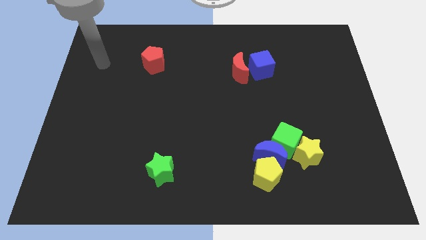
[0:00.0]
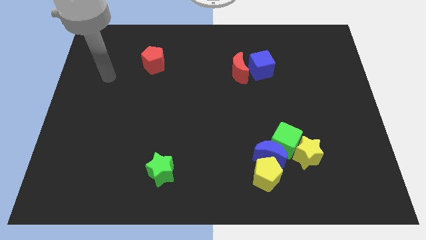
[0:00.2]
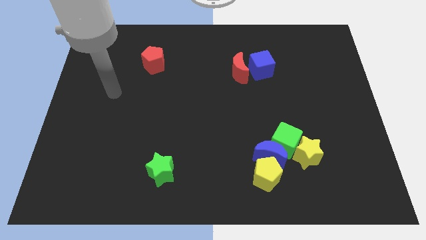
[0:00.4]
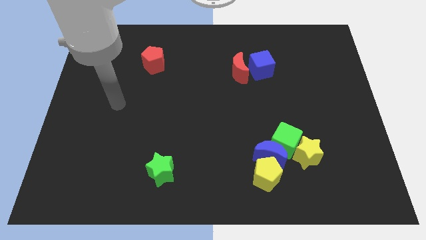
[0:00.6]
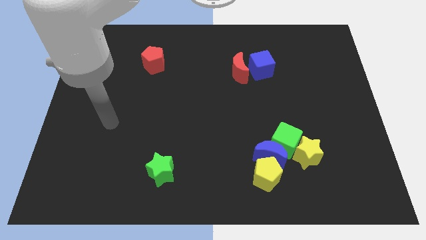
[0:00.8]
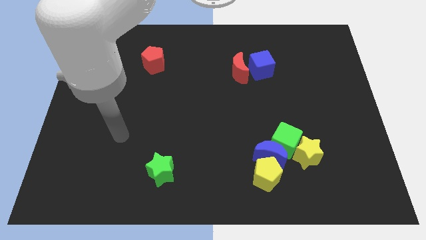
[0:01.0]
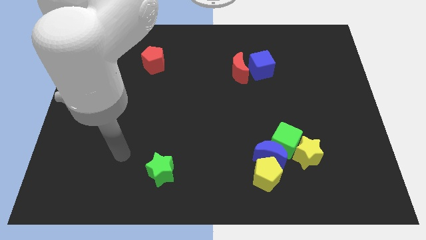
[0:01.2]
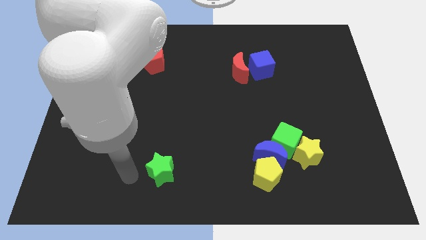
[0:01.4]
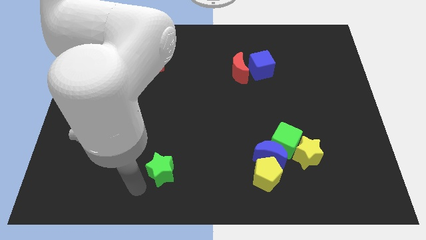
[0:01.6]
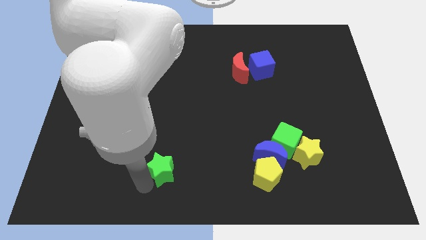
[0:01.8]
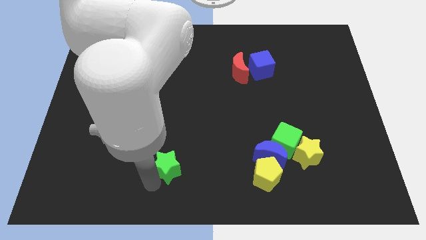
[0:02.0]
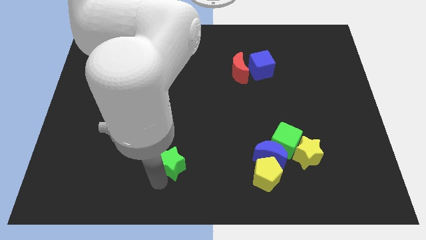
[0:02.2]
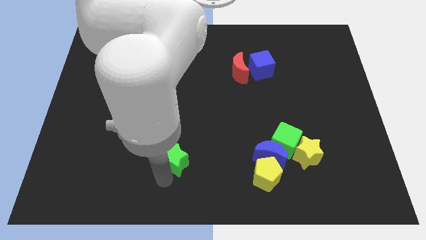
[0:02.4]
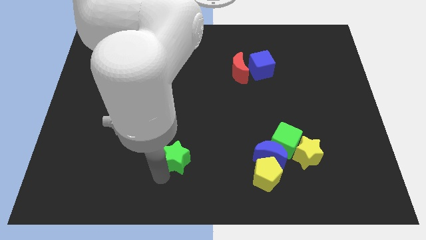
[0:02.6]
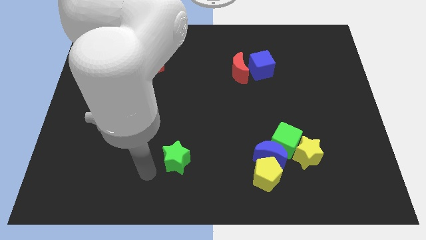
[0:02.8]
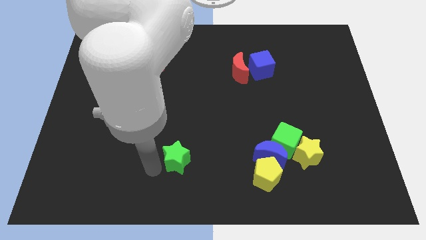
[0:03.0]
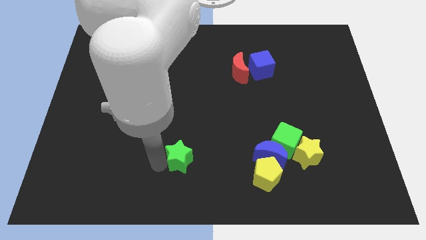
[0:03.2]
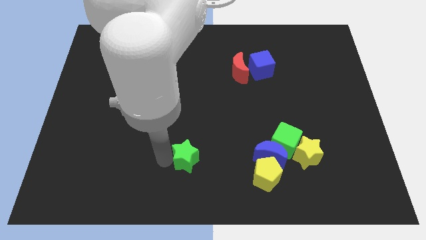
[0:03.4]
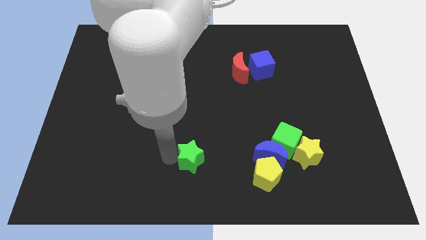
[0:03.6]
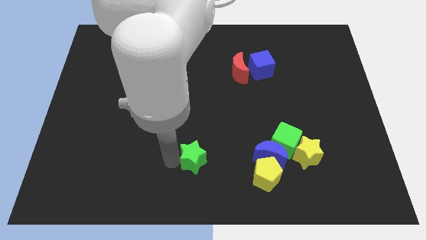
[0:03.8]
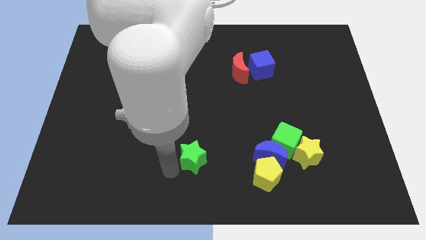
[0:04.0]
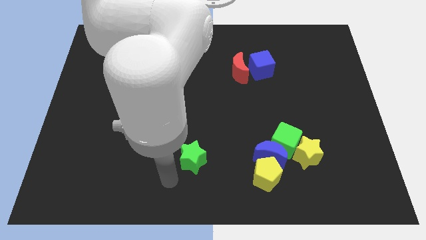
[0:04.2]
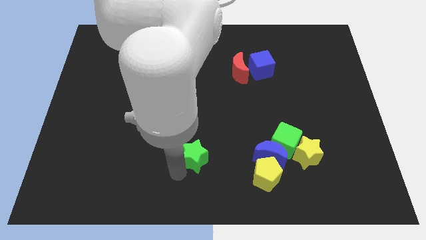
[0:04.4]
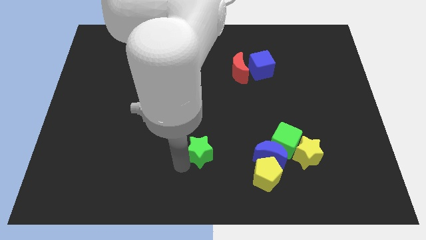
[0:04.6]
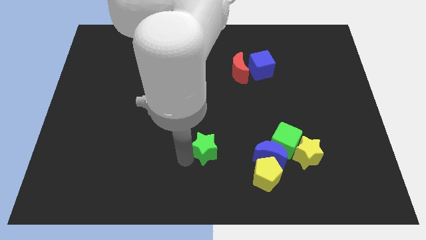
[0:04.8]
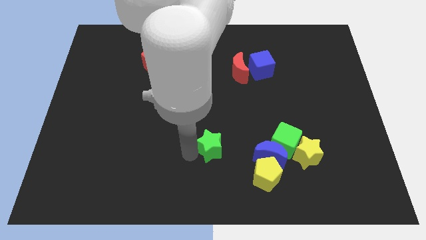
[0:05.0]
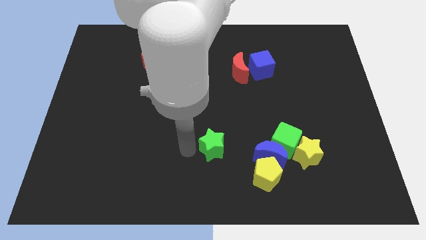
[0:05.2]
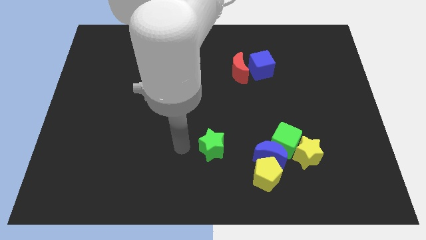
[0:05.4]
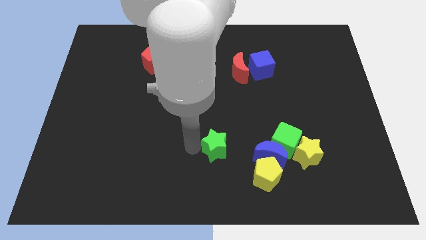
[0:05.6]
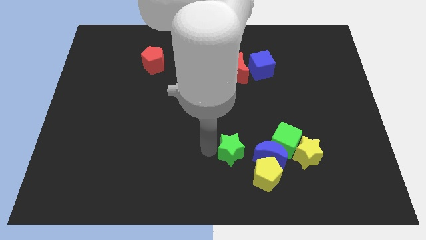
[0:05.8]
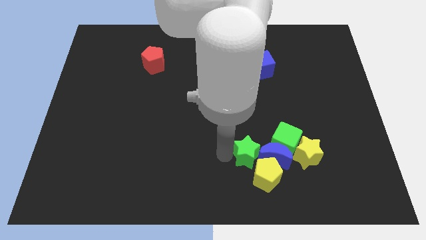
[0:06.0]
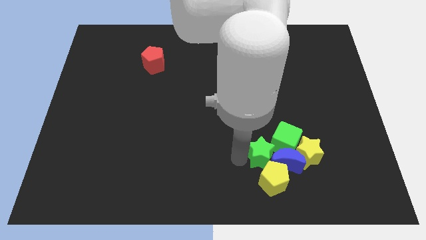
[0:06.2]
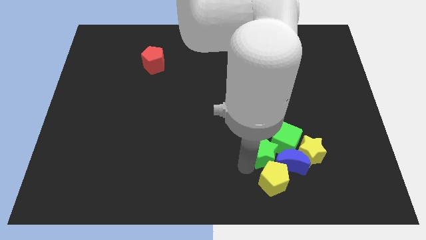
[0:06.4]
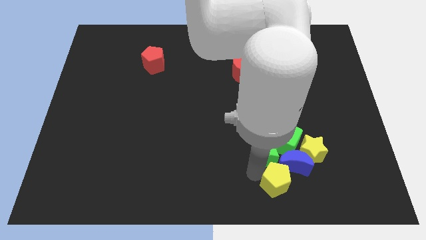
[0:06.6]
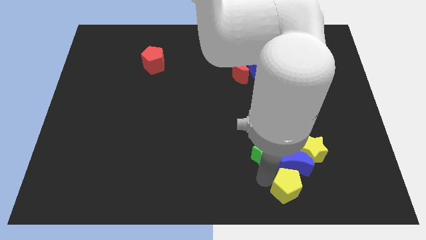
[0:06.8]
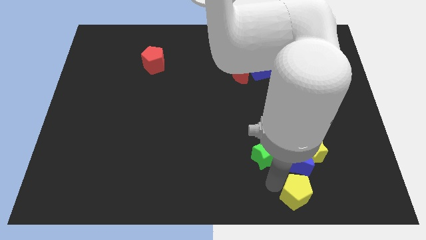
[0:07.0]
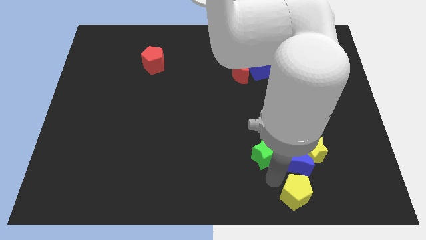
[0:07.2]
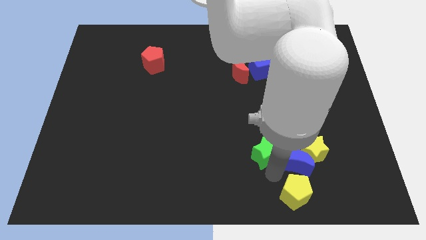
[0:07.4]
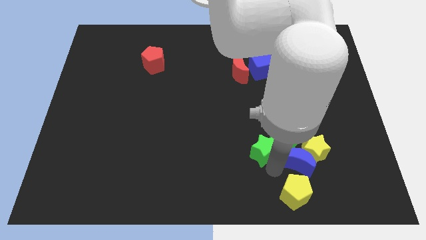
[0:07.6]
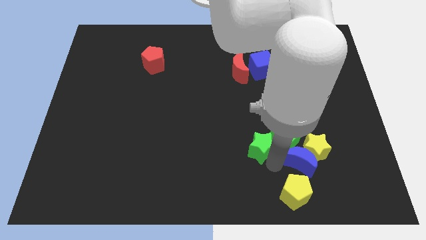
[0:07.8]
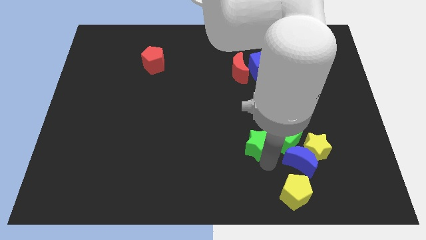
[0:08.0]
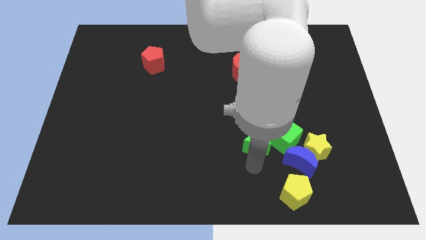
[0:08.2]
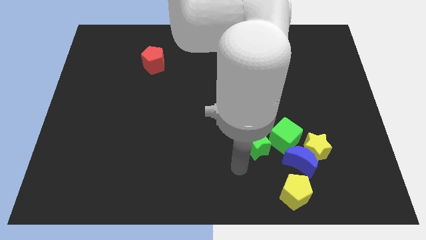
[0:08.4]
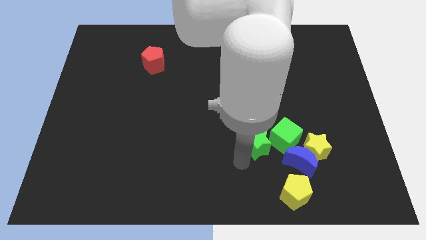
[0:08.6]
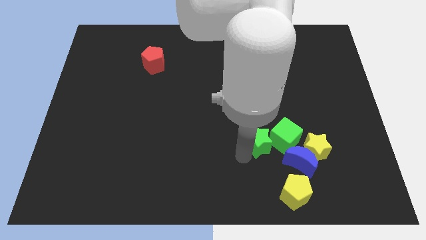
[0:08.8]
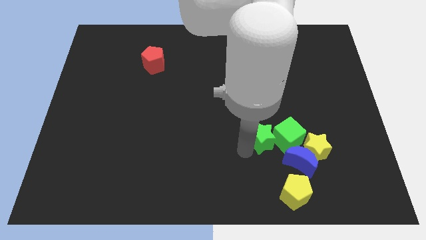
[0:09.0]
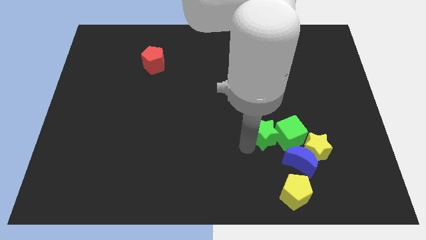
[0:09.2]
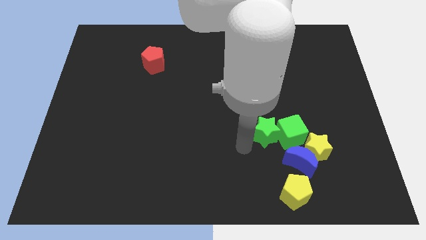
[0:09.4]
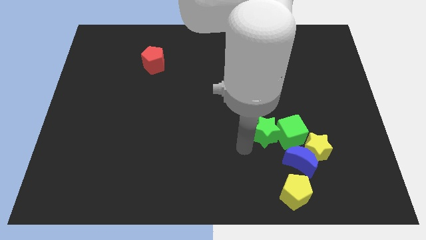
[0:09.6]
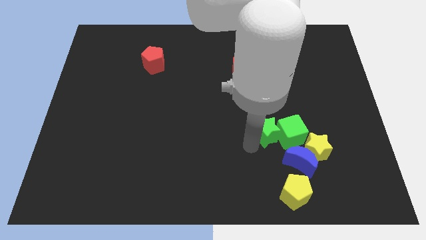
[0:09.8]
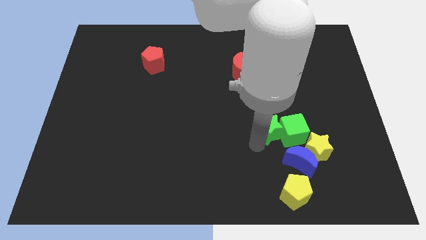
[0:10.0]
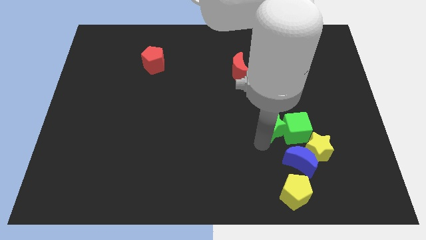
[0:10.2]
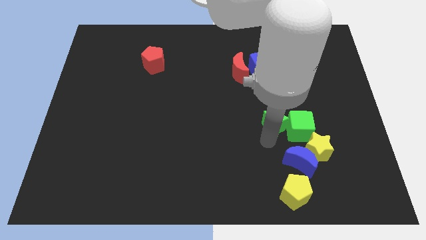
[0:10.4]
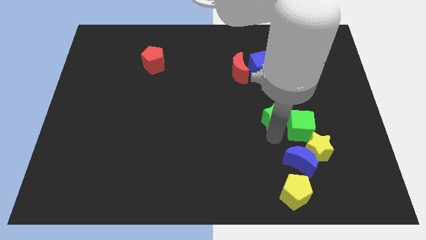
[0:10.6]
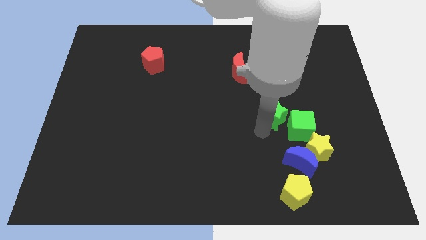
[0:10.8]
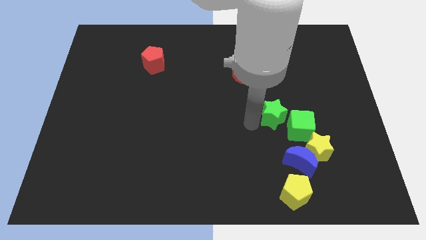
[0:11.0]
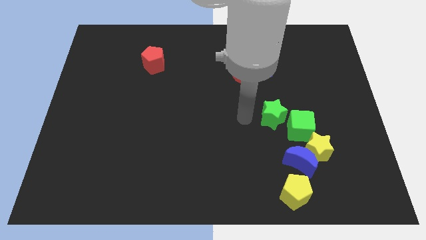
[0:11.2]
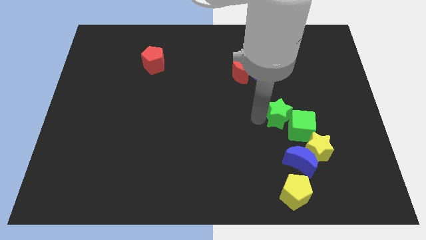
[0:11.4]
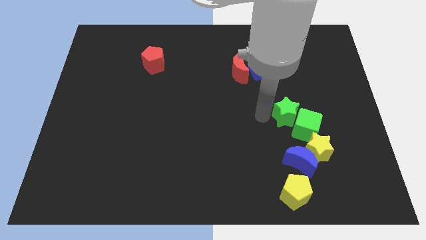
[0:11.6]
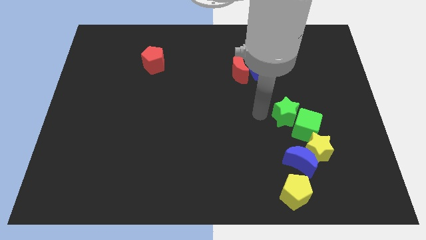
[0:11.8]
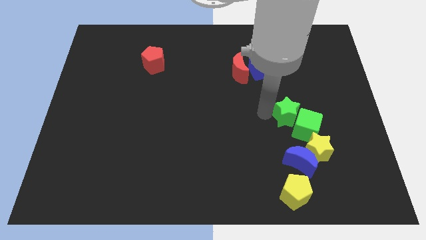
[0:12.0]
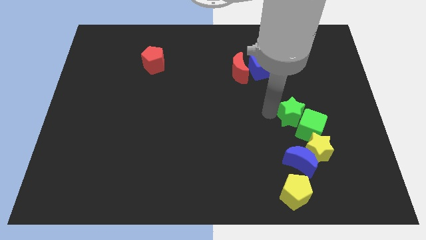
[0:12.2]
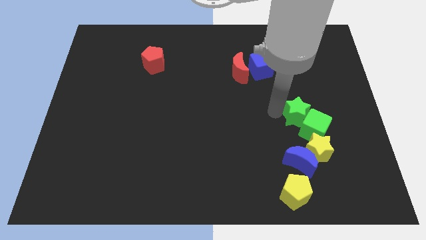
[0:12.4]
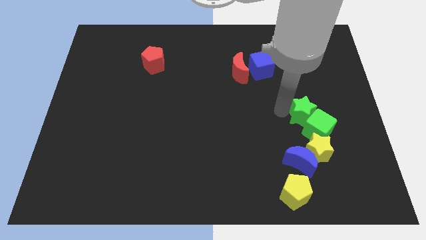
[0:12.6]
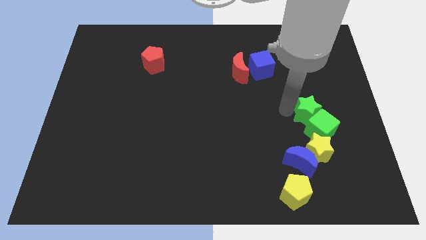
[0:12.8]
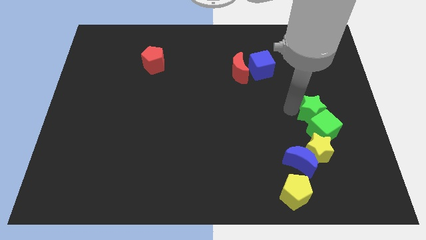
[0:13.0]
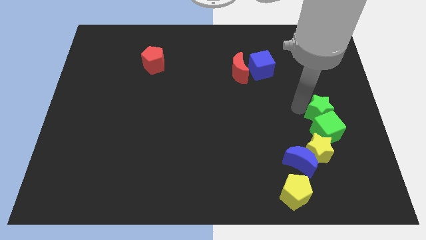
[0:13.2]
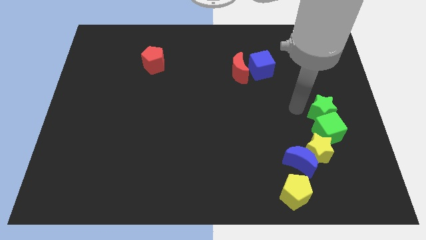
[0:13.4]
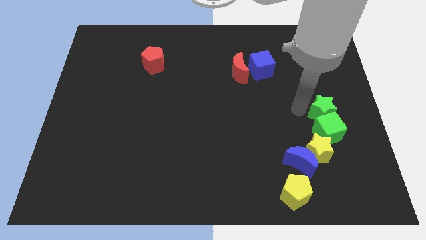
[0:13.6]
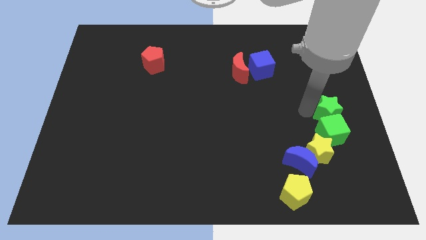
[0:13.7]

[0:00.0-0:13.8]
push the green star to the right side of the board
